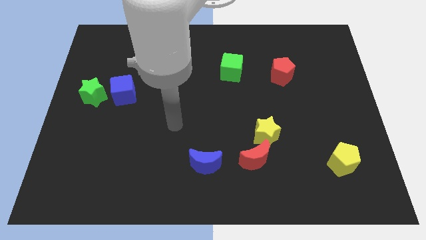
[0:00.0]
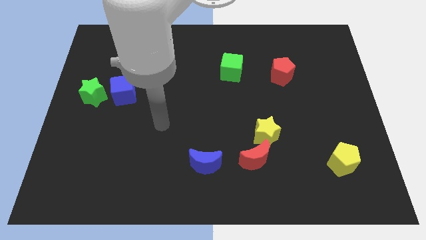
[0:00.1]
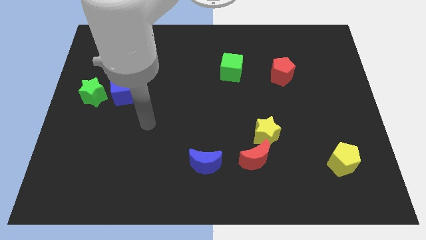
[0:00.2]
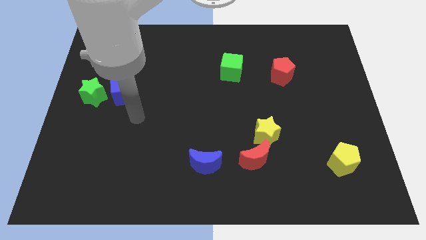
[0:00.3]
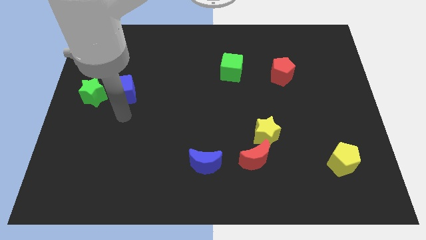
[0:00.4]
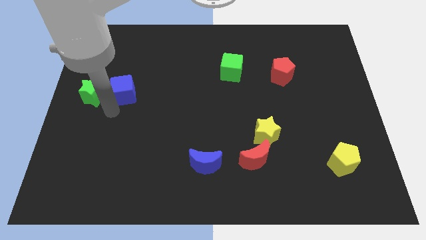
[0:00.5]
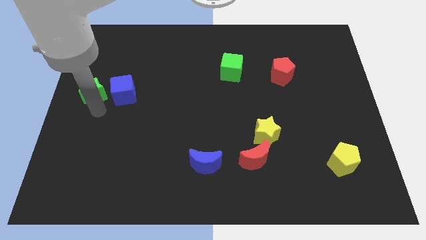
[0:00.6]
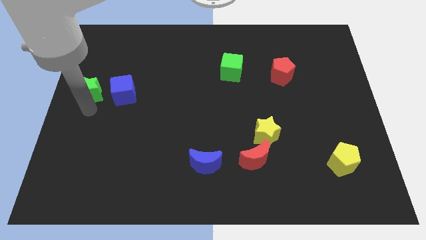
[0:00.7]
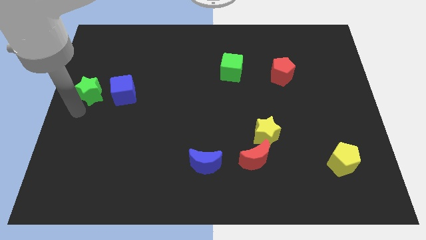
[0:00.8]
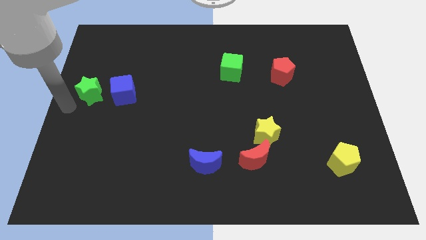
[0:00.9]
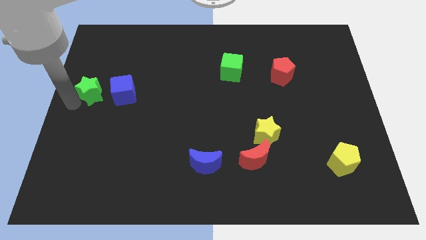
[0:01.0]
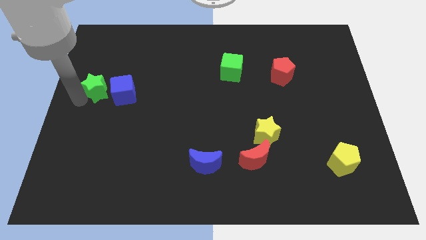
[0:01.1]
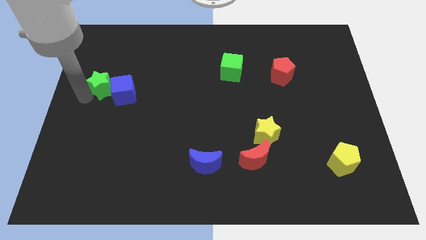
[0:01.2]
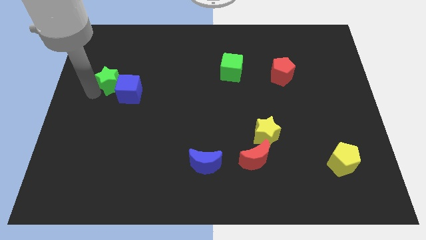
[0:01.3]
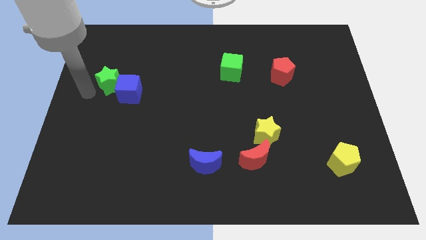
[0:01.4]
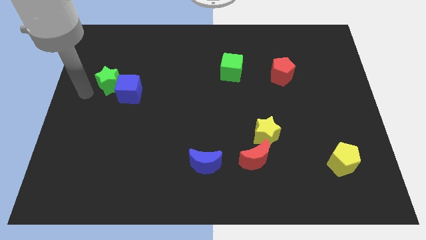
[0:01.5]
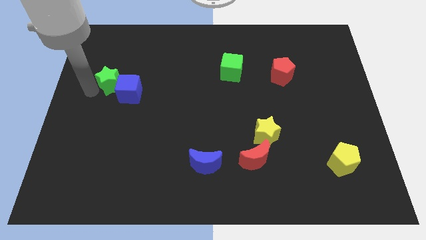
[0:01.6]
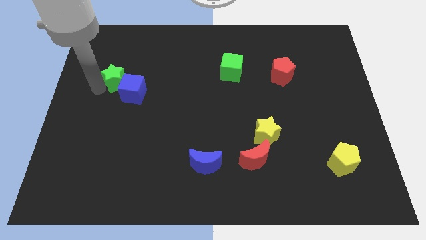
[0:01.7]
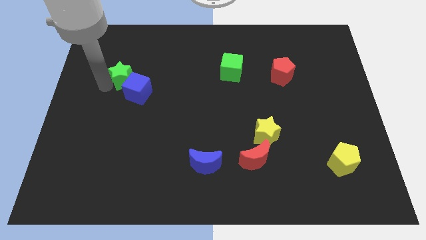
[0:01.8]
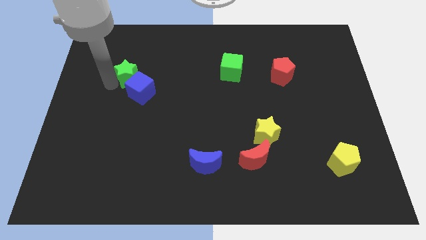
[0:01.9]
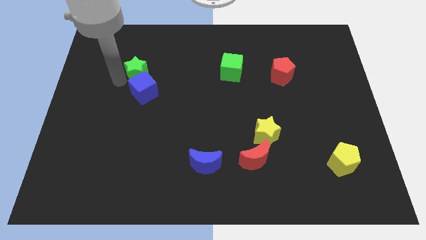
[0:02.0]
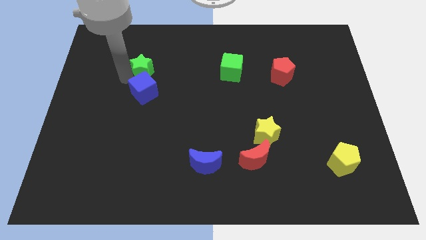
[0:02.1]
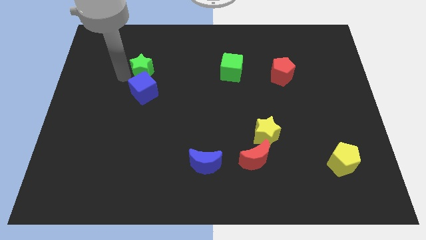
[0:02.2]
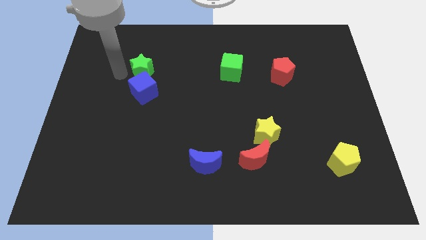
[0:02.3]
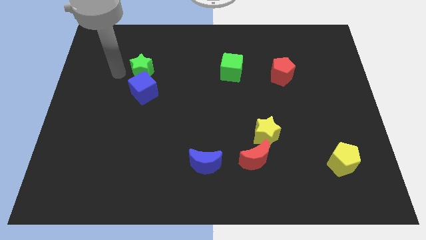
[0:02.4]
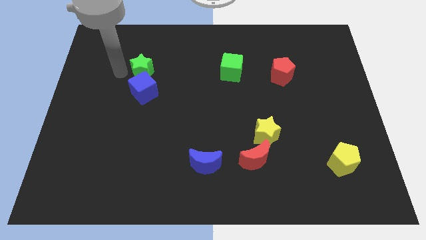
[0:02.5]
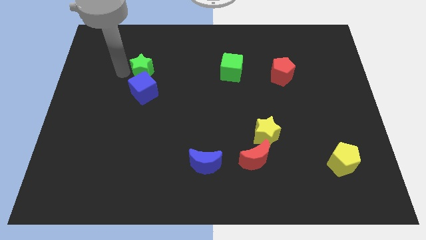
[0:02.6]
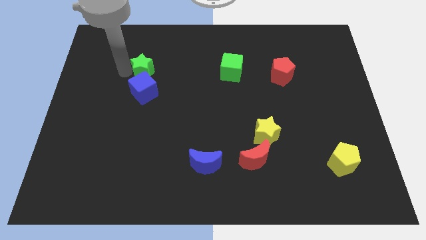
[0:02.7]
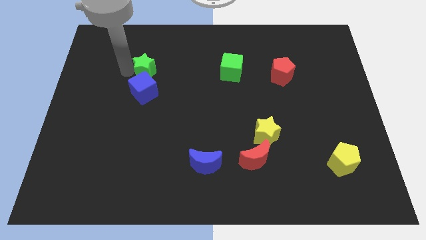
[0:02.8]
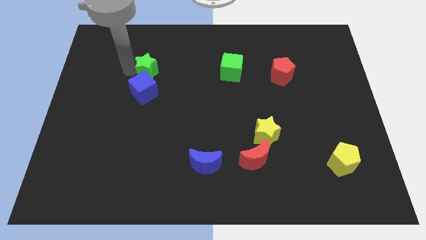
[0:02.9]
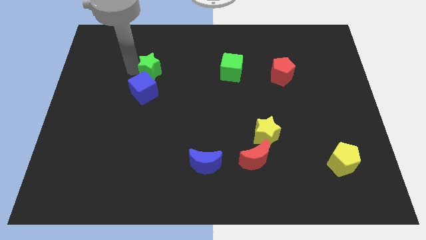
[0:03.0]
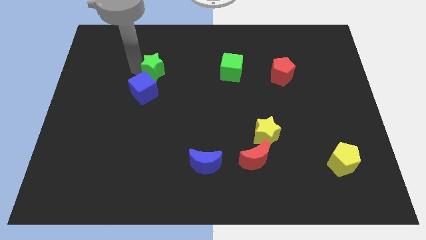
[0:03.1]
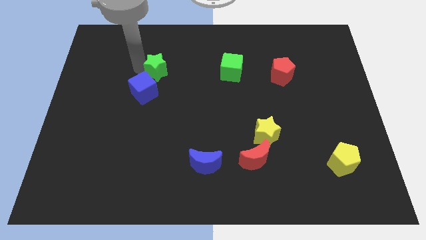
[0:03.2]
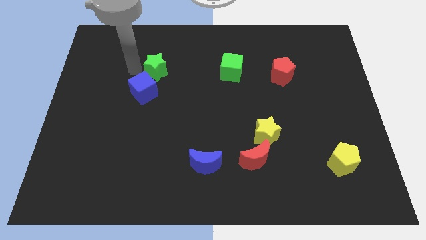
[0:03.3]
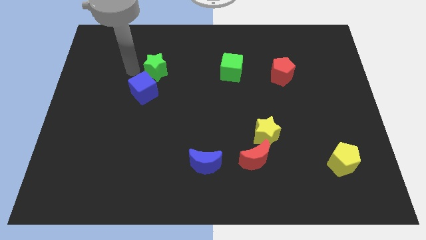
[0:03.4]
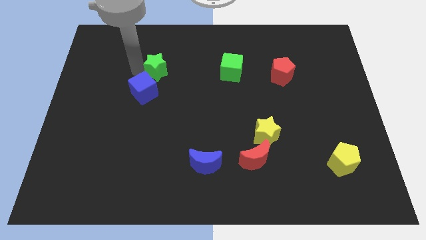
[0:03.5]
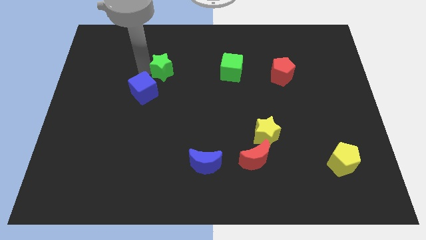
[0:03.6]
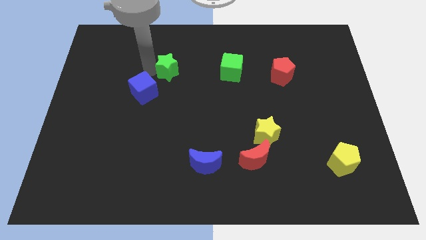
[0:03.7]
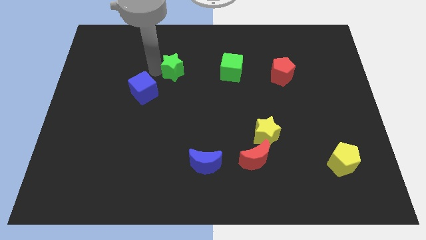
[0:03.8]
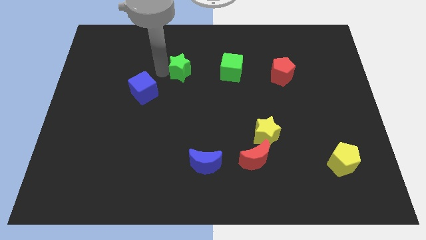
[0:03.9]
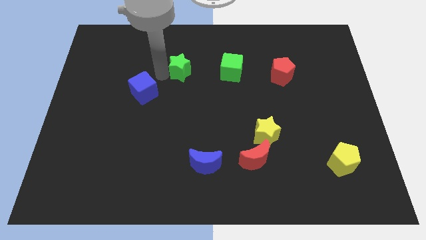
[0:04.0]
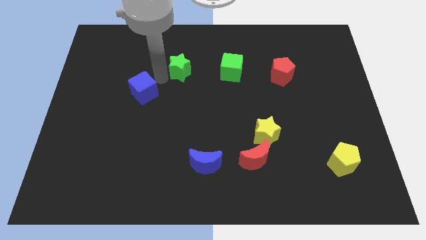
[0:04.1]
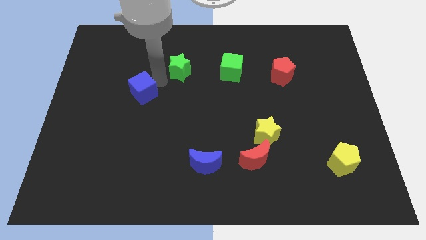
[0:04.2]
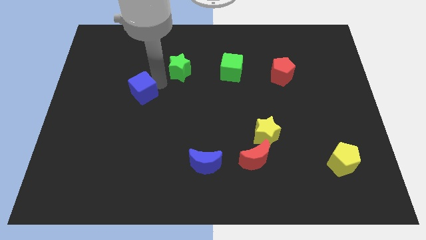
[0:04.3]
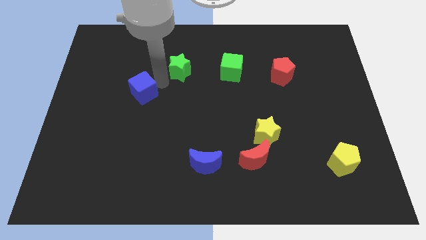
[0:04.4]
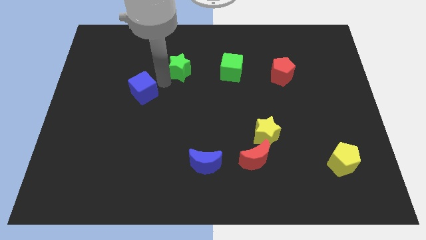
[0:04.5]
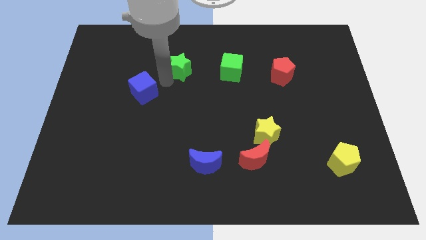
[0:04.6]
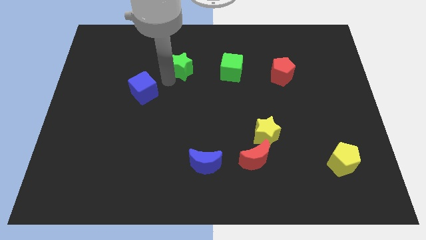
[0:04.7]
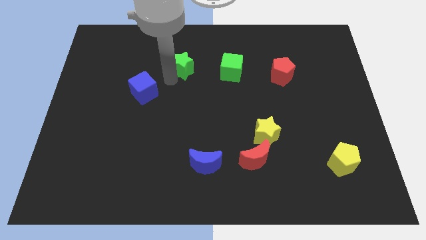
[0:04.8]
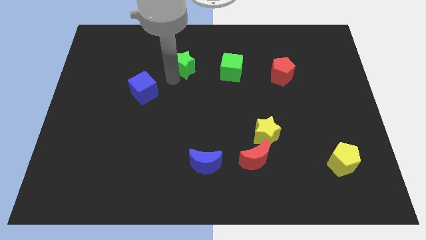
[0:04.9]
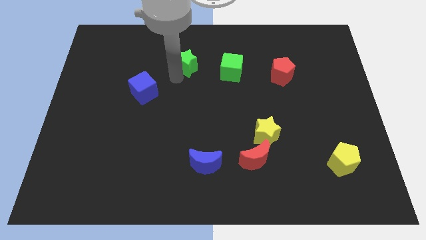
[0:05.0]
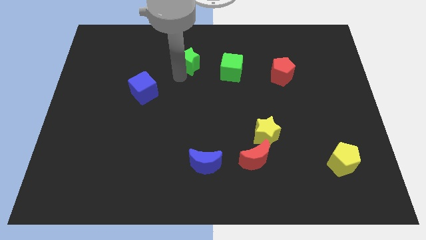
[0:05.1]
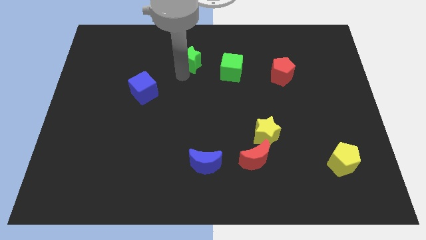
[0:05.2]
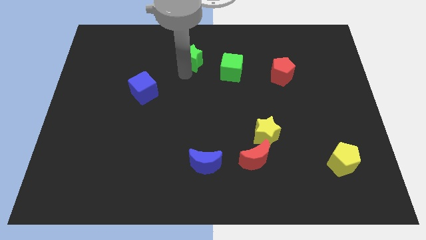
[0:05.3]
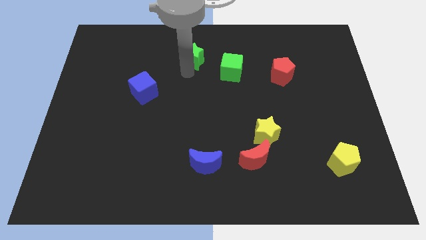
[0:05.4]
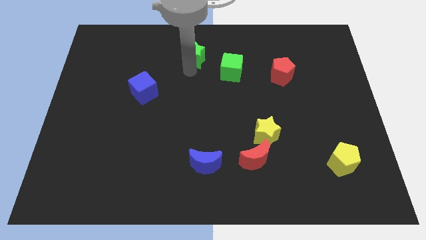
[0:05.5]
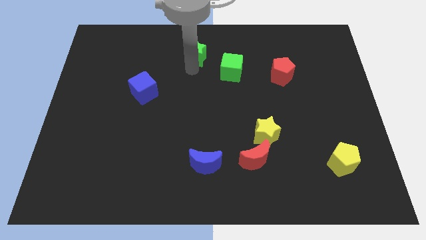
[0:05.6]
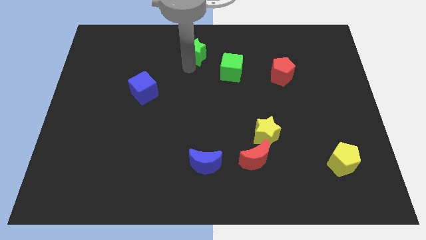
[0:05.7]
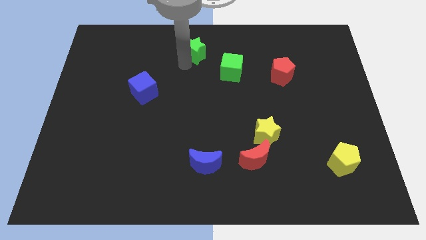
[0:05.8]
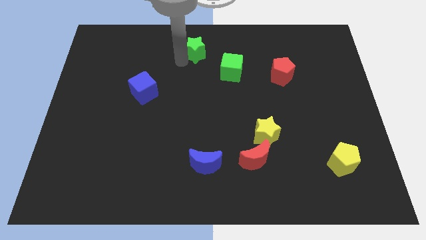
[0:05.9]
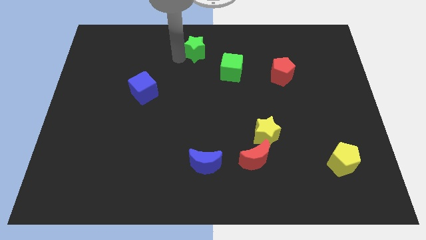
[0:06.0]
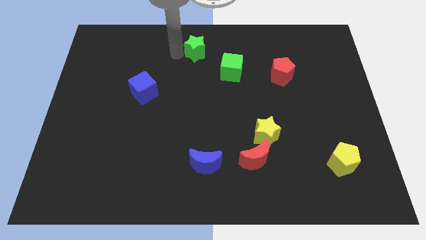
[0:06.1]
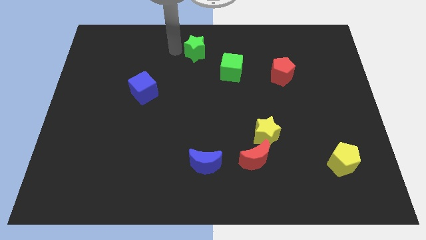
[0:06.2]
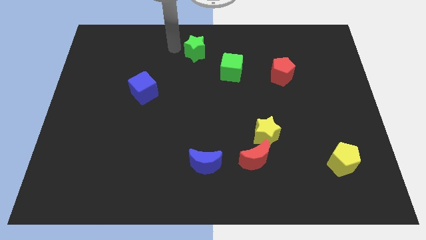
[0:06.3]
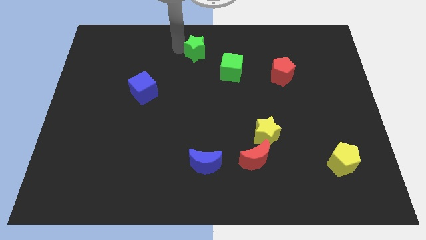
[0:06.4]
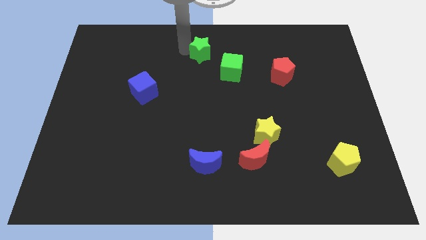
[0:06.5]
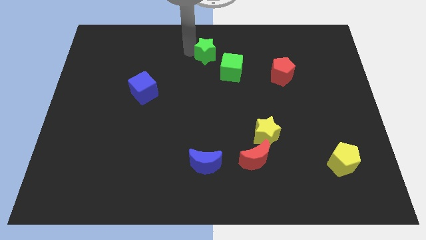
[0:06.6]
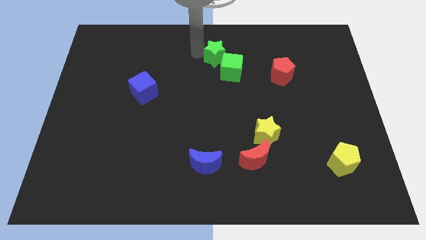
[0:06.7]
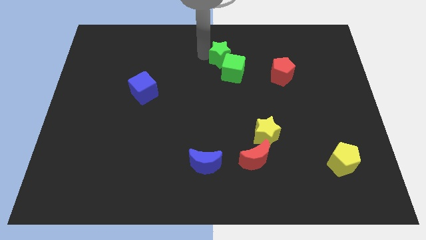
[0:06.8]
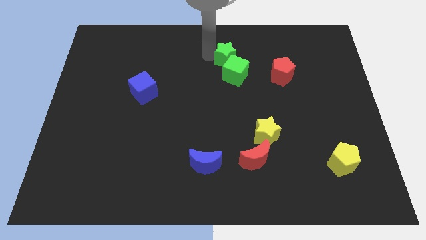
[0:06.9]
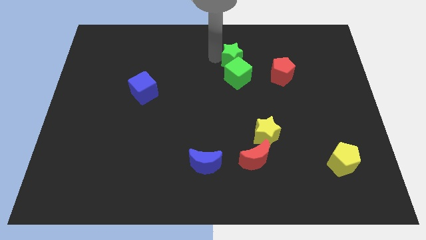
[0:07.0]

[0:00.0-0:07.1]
put the green star diagonally up and to the right of the green cube
